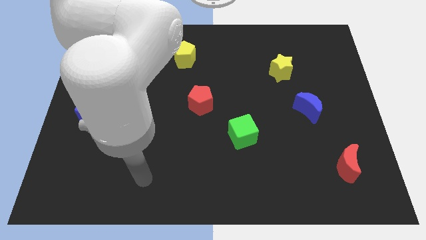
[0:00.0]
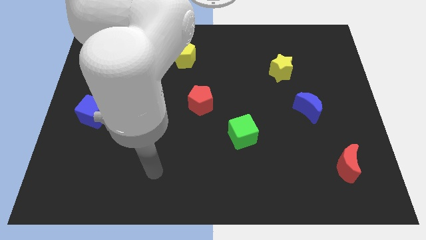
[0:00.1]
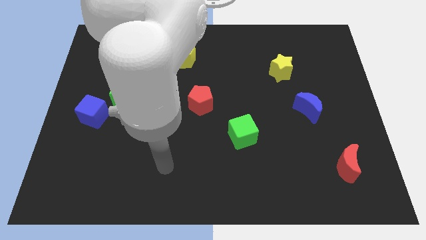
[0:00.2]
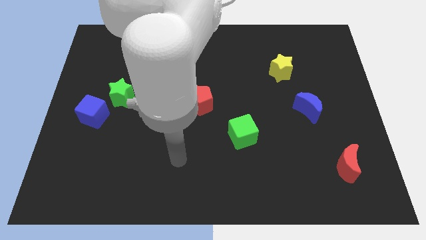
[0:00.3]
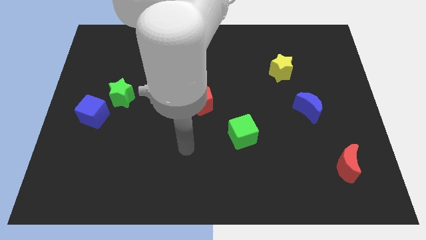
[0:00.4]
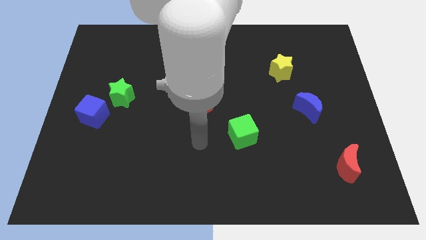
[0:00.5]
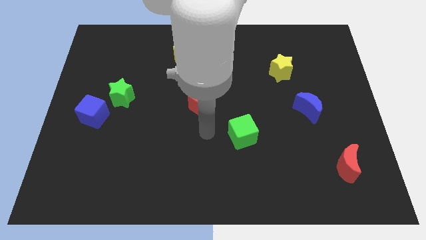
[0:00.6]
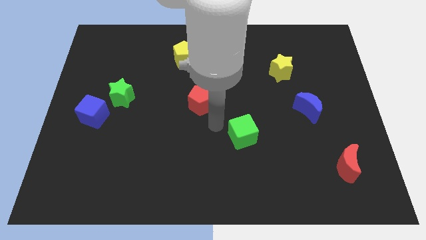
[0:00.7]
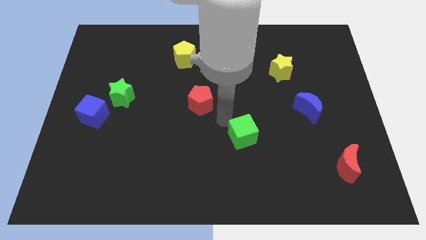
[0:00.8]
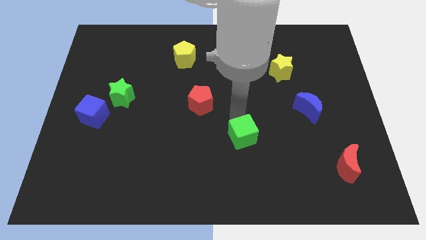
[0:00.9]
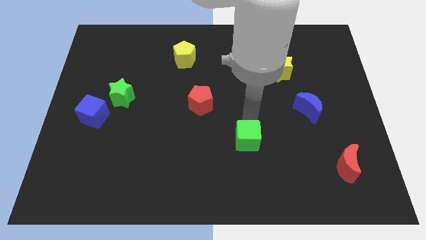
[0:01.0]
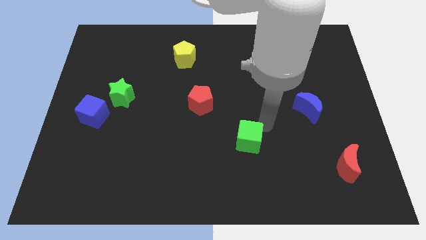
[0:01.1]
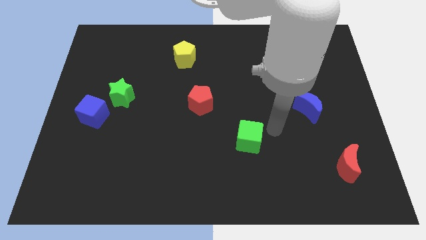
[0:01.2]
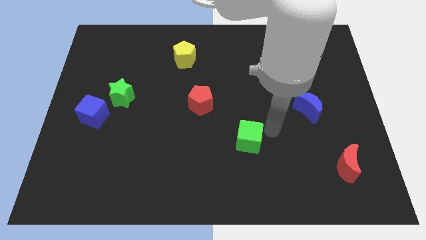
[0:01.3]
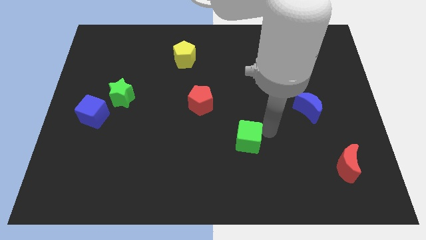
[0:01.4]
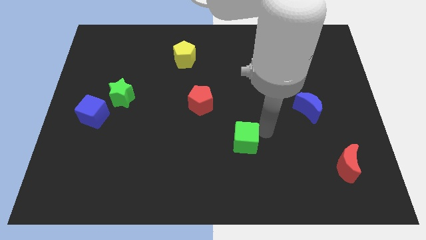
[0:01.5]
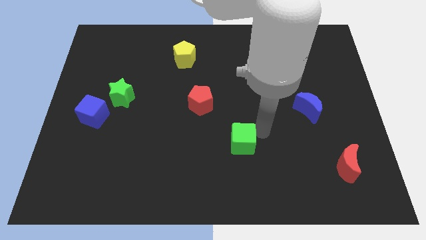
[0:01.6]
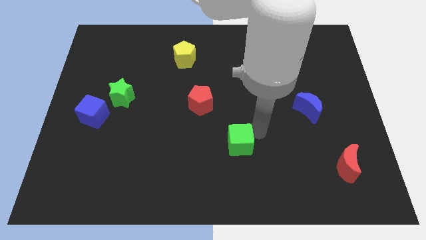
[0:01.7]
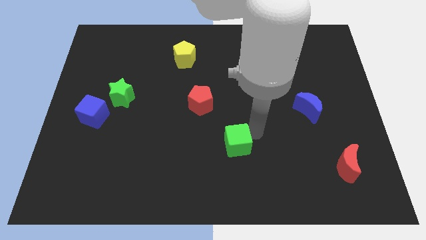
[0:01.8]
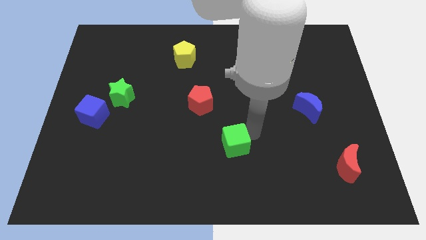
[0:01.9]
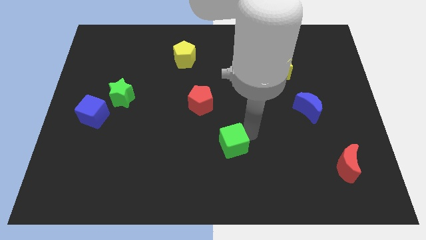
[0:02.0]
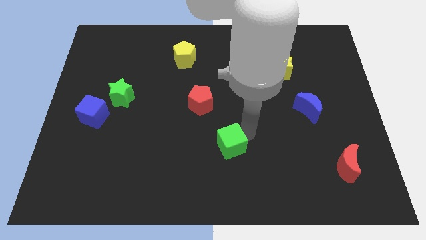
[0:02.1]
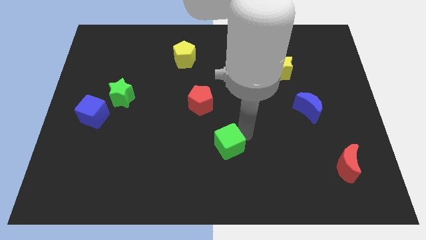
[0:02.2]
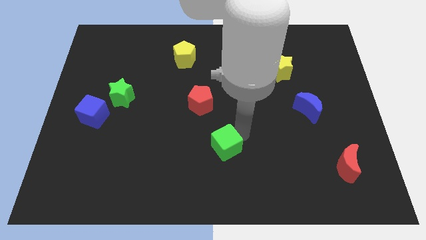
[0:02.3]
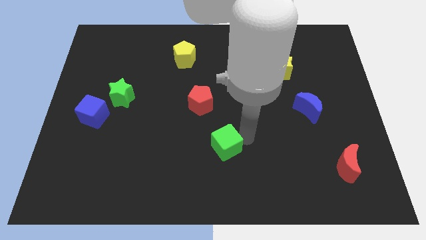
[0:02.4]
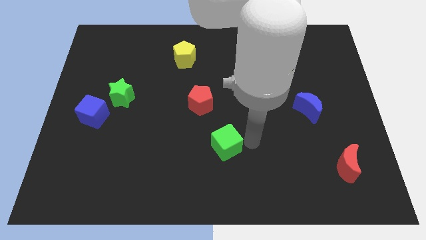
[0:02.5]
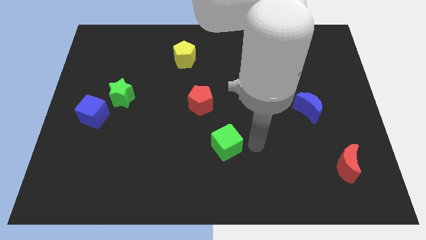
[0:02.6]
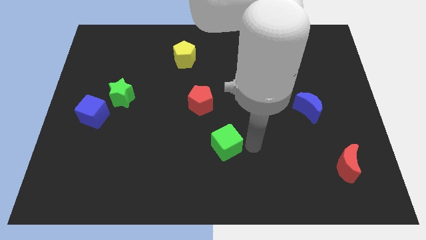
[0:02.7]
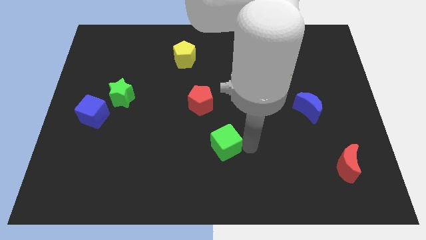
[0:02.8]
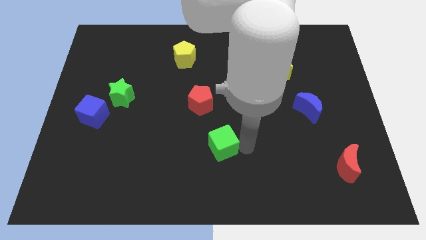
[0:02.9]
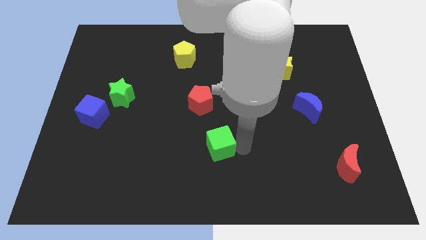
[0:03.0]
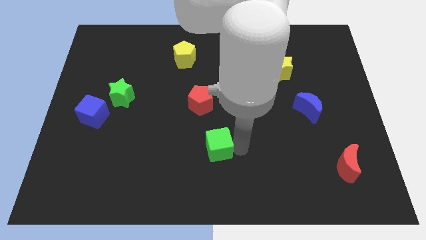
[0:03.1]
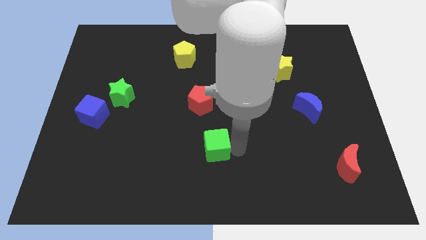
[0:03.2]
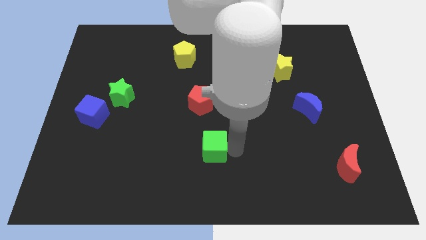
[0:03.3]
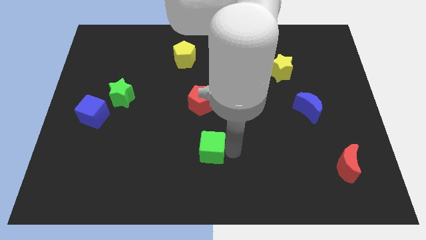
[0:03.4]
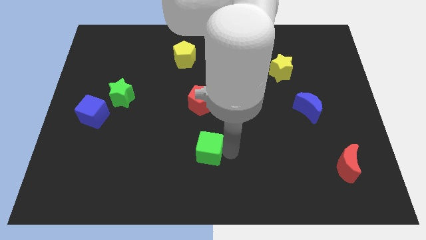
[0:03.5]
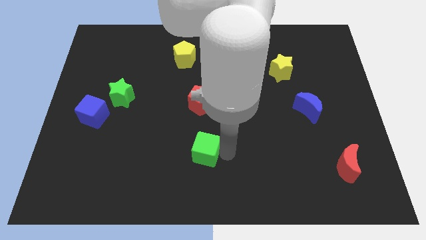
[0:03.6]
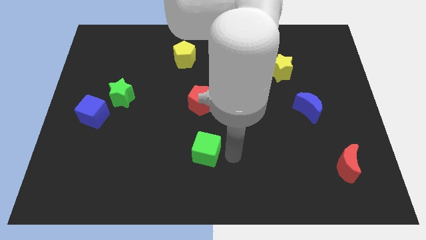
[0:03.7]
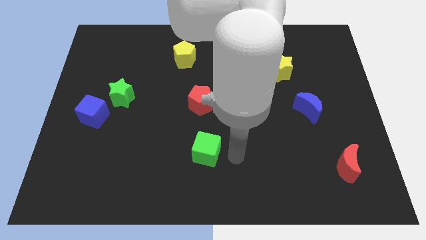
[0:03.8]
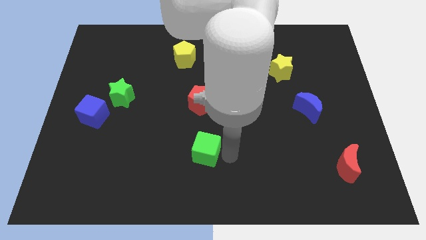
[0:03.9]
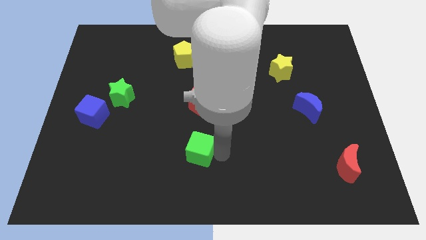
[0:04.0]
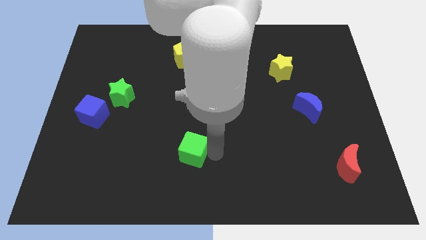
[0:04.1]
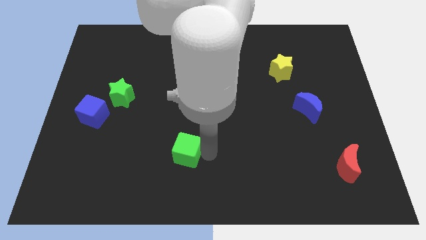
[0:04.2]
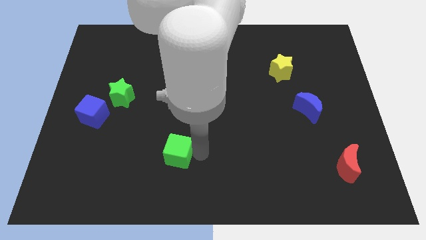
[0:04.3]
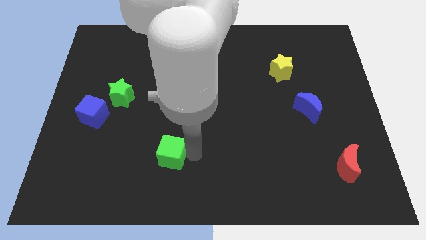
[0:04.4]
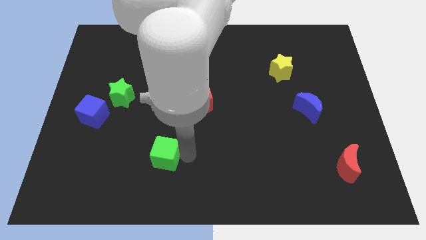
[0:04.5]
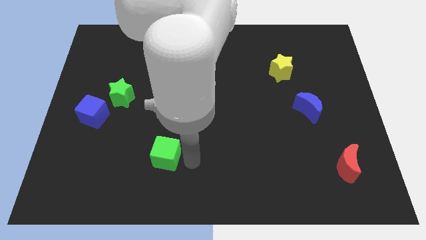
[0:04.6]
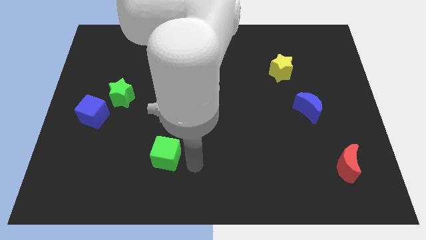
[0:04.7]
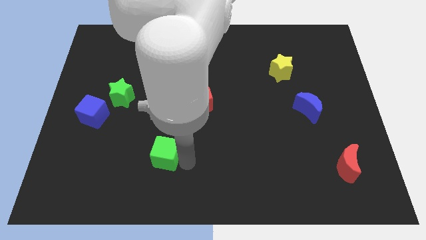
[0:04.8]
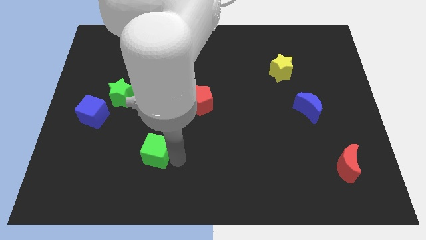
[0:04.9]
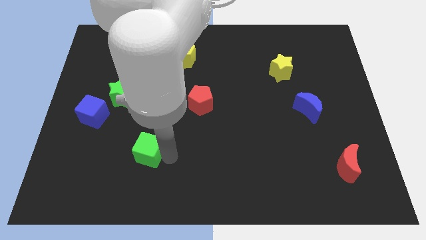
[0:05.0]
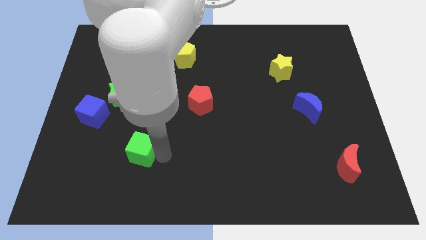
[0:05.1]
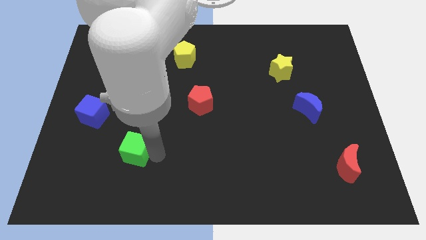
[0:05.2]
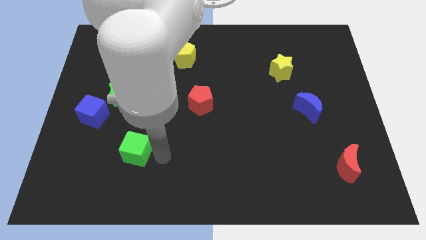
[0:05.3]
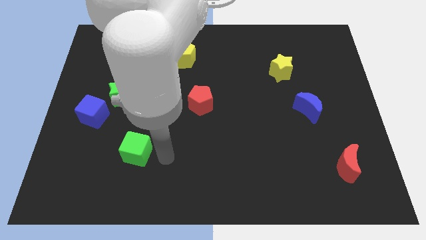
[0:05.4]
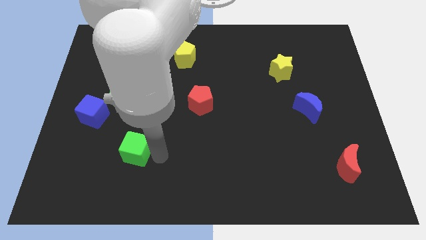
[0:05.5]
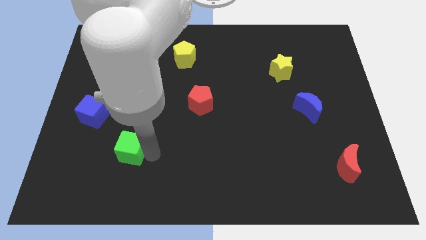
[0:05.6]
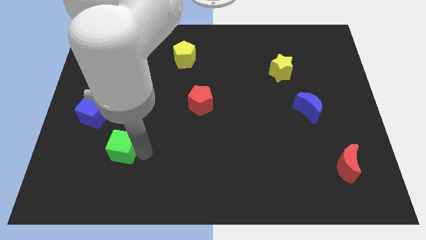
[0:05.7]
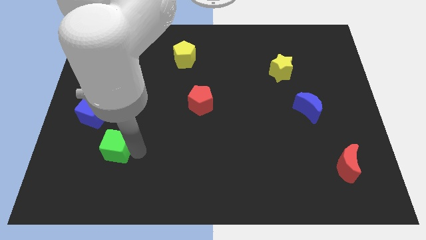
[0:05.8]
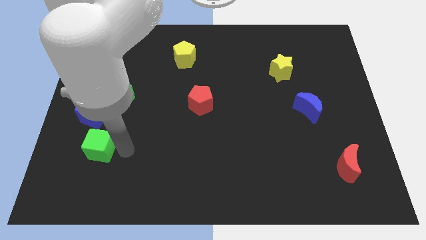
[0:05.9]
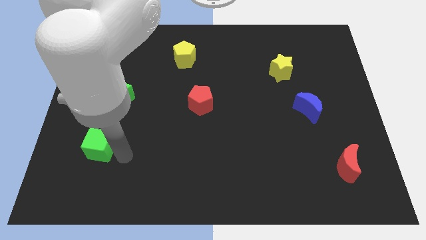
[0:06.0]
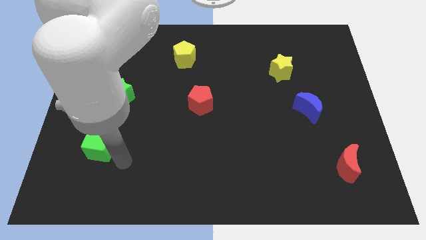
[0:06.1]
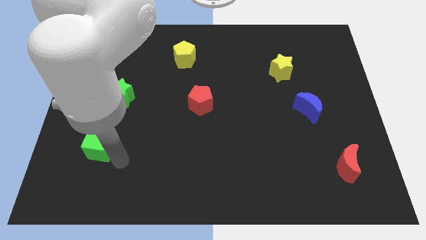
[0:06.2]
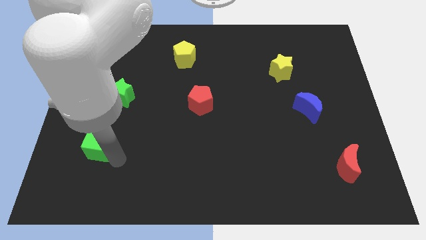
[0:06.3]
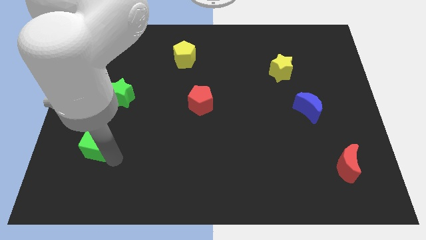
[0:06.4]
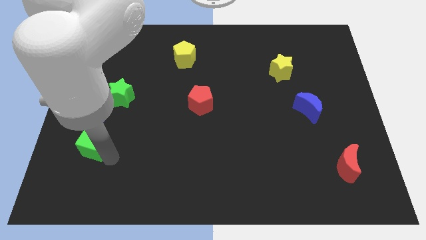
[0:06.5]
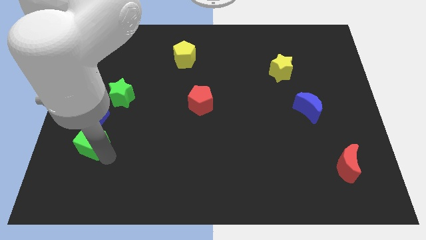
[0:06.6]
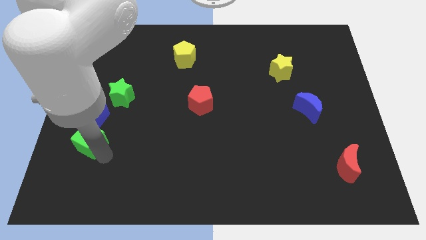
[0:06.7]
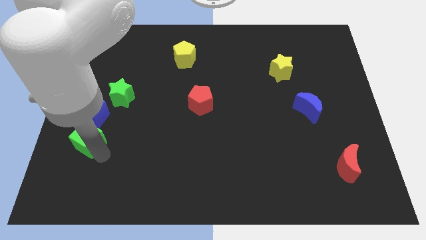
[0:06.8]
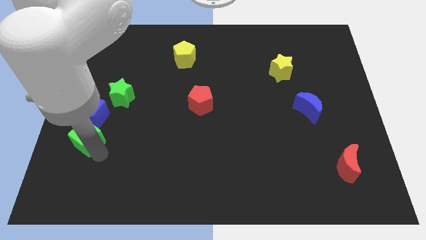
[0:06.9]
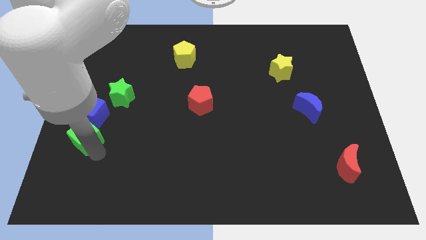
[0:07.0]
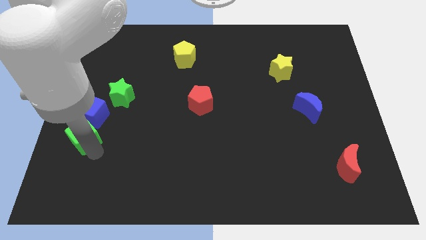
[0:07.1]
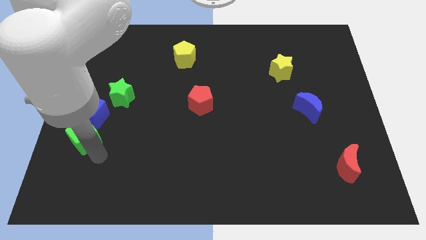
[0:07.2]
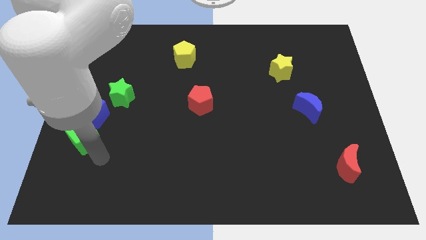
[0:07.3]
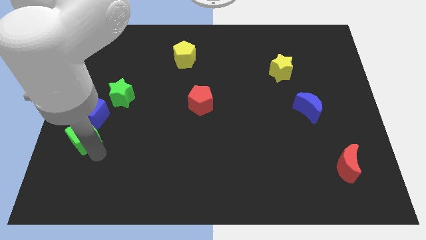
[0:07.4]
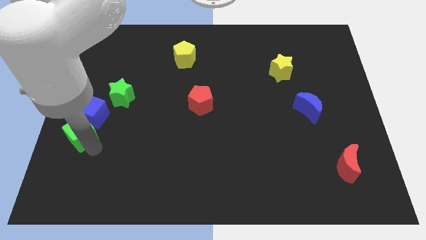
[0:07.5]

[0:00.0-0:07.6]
slide the green cube to the left side of the board
